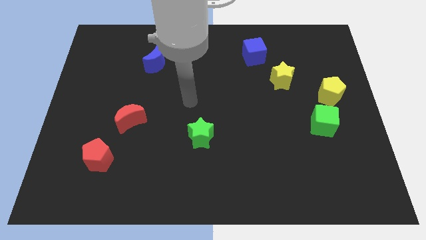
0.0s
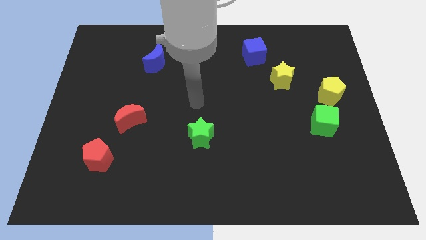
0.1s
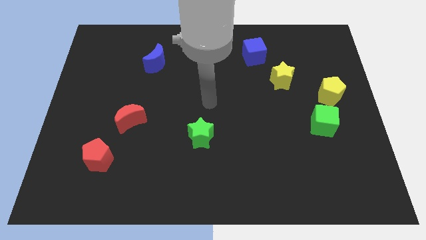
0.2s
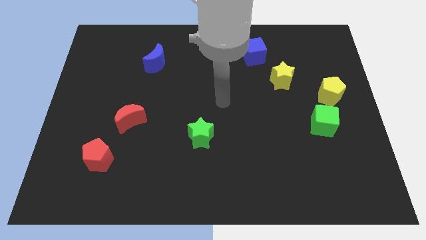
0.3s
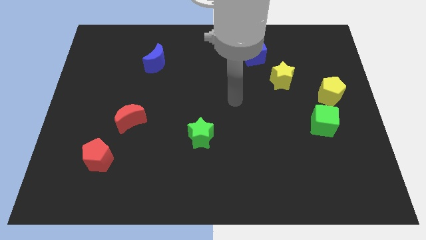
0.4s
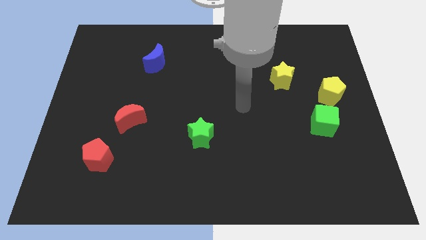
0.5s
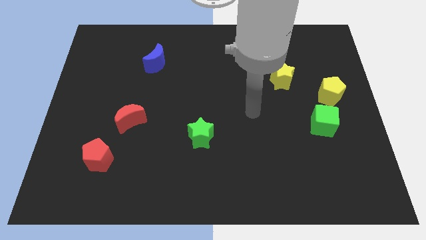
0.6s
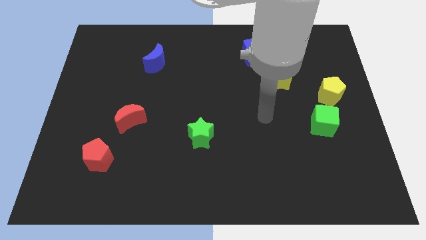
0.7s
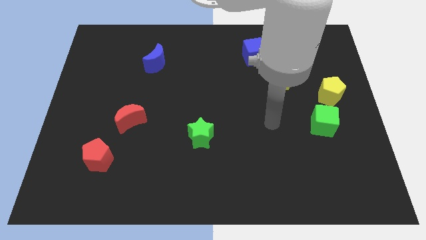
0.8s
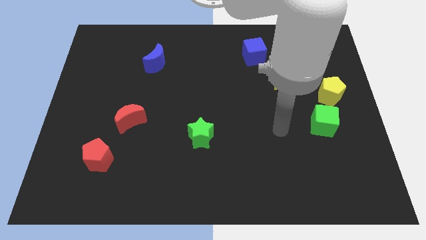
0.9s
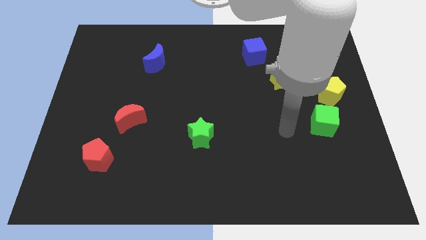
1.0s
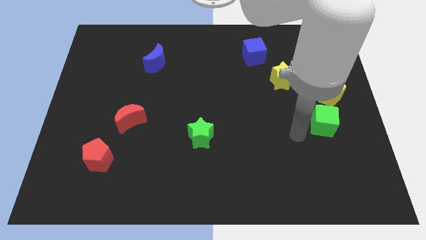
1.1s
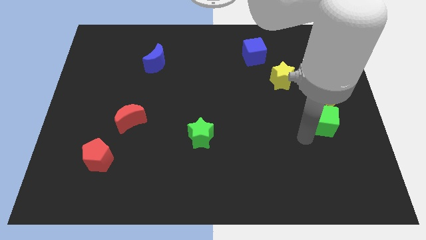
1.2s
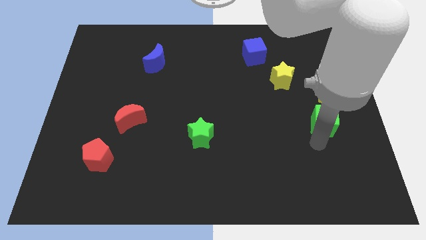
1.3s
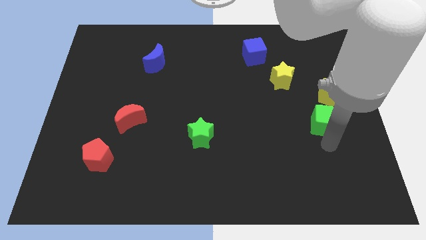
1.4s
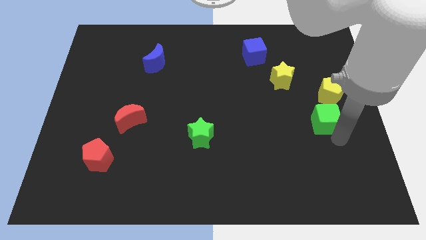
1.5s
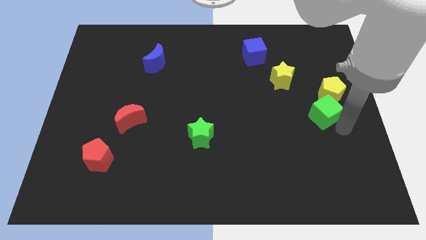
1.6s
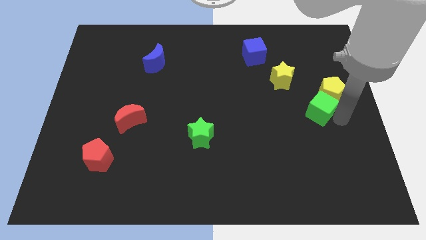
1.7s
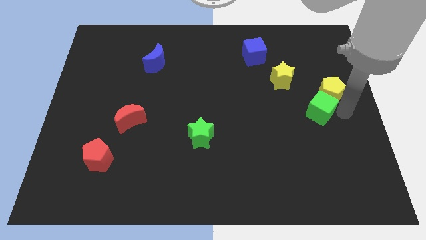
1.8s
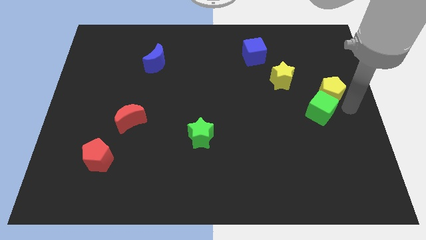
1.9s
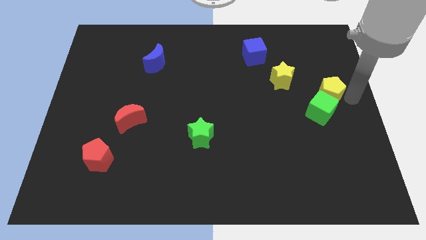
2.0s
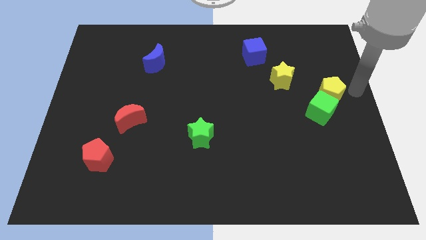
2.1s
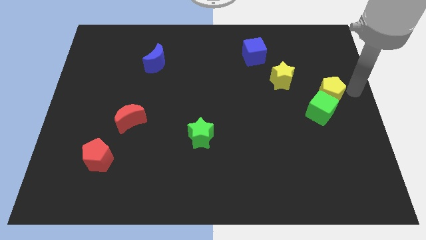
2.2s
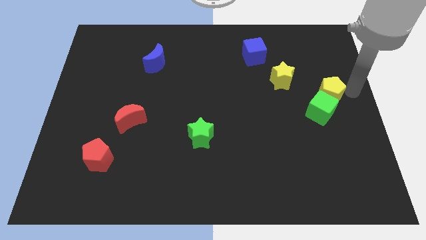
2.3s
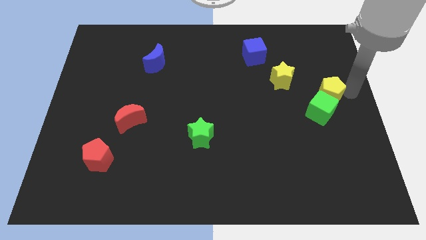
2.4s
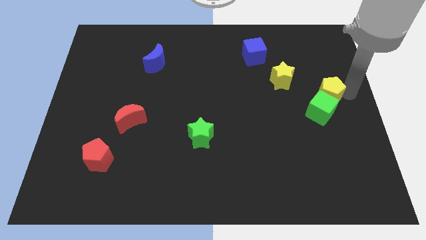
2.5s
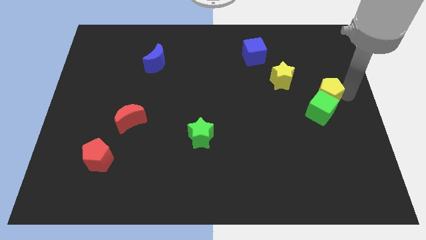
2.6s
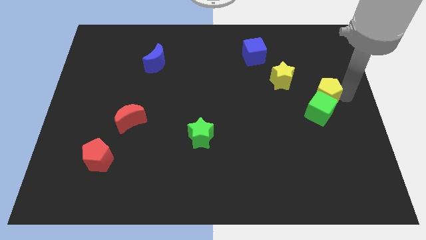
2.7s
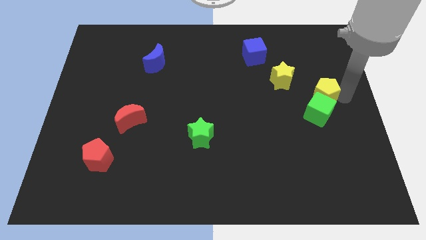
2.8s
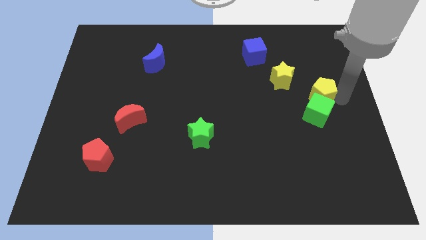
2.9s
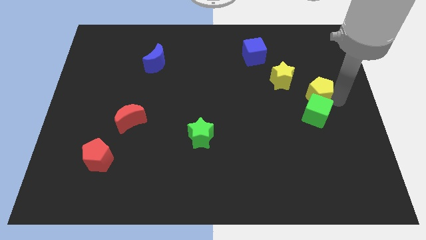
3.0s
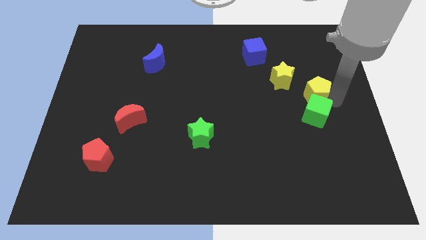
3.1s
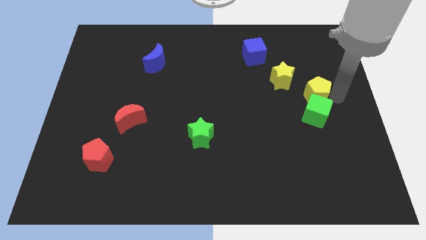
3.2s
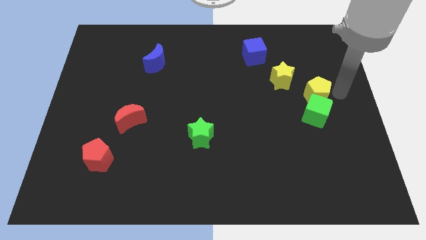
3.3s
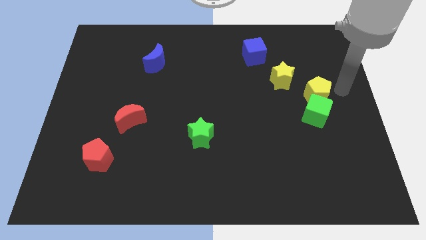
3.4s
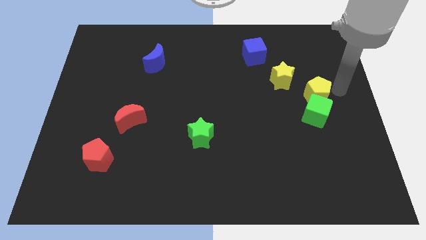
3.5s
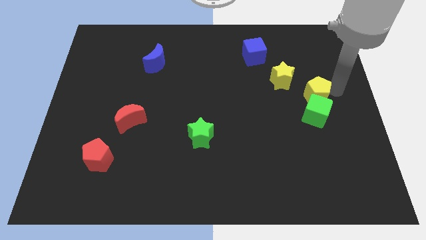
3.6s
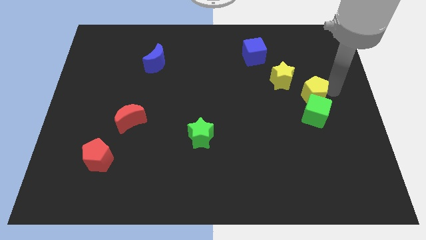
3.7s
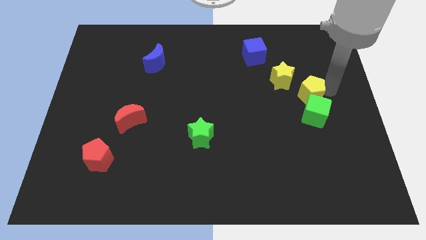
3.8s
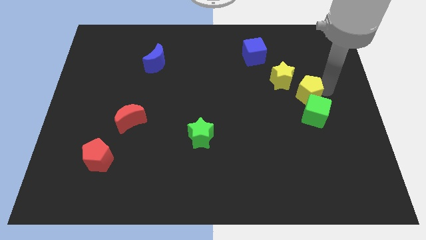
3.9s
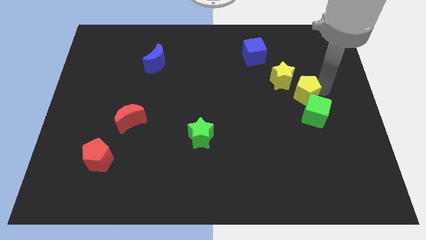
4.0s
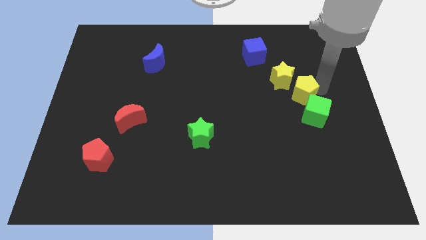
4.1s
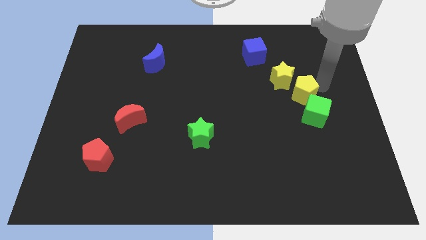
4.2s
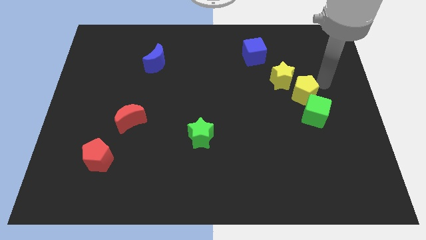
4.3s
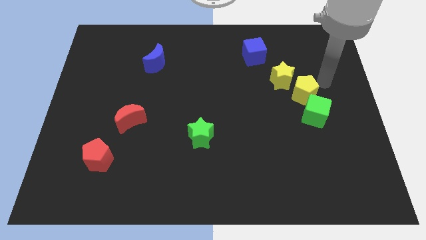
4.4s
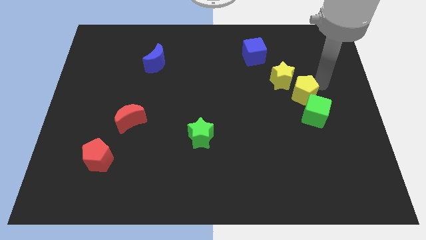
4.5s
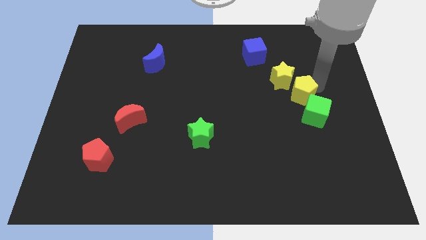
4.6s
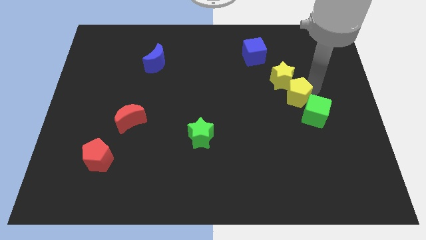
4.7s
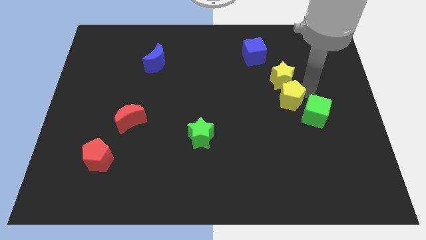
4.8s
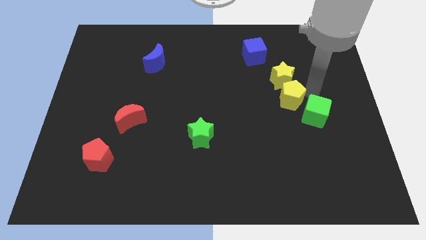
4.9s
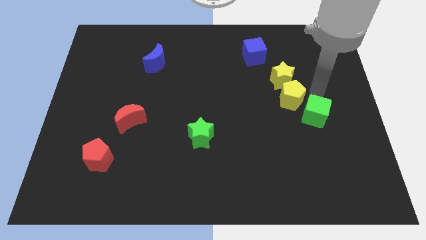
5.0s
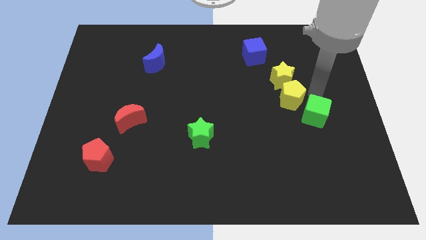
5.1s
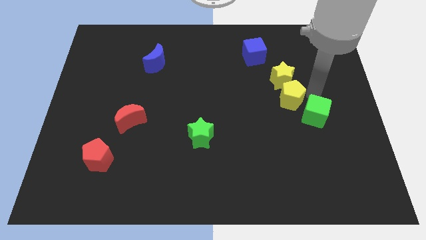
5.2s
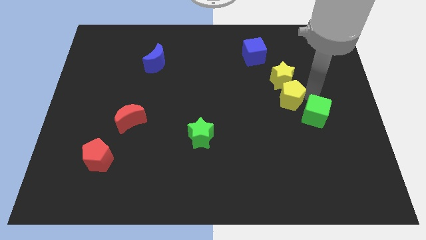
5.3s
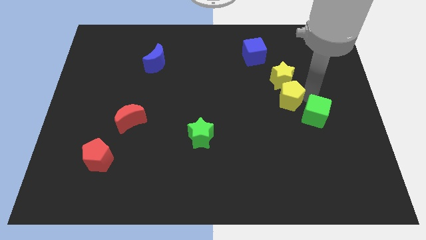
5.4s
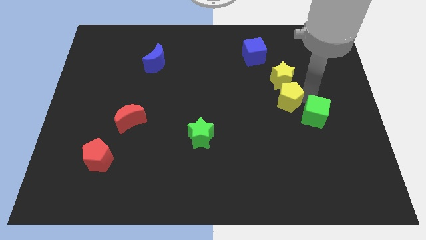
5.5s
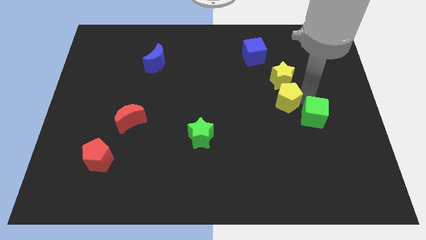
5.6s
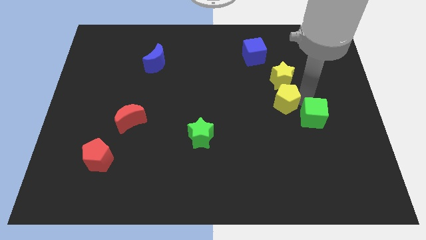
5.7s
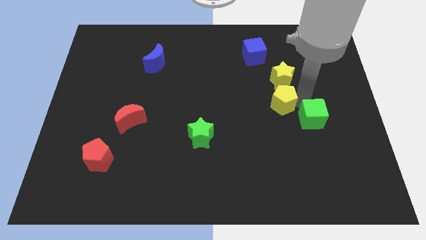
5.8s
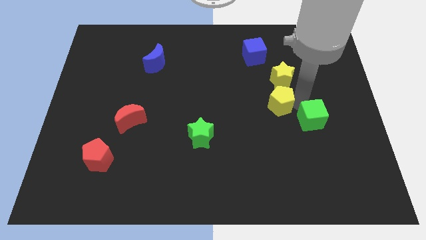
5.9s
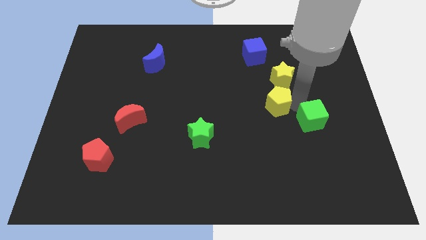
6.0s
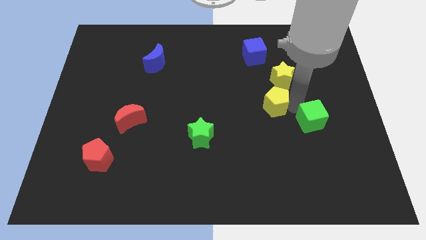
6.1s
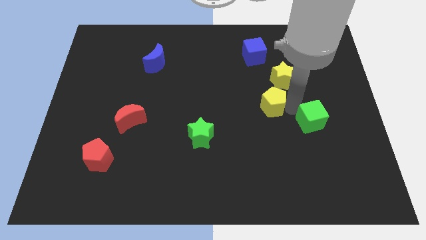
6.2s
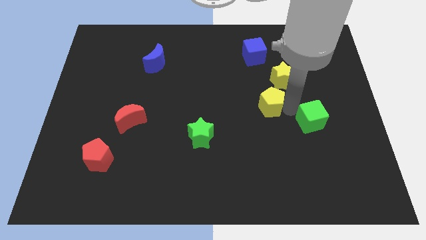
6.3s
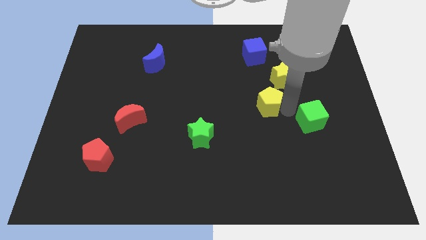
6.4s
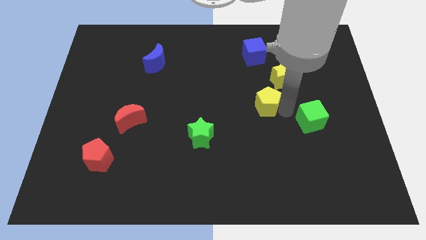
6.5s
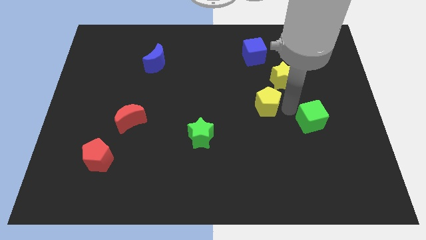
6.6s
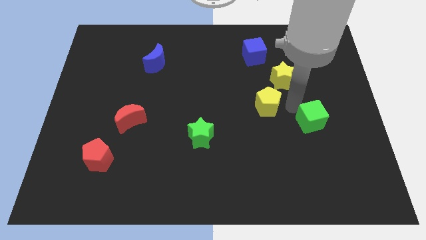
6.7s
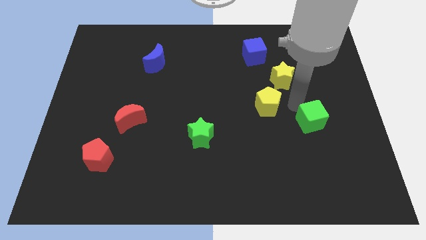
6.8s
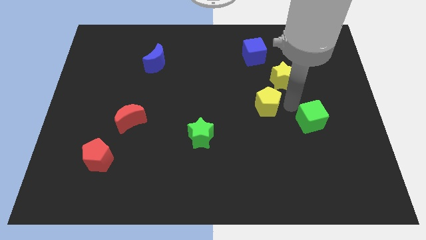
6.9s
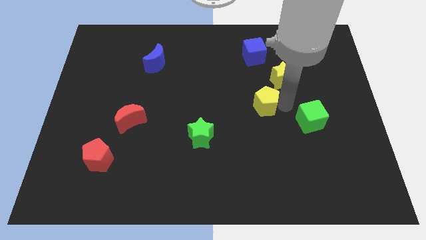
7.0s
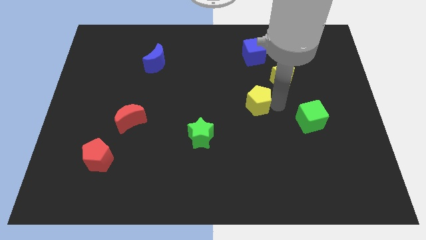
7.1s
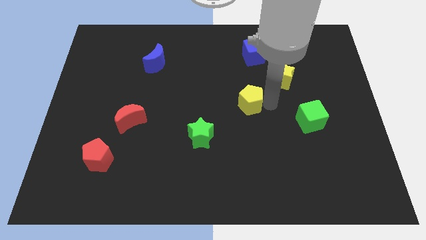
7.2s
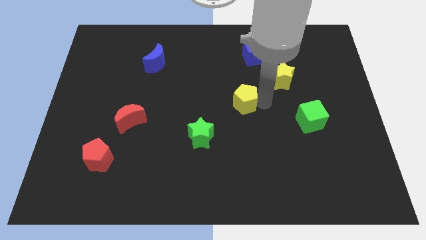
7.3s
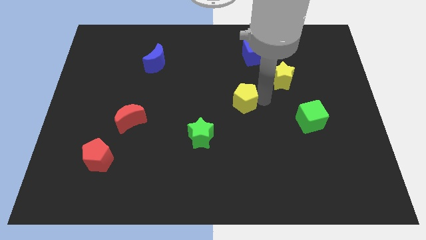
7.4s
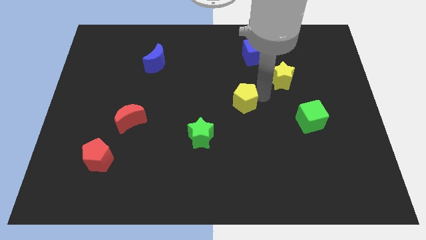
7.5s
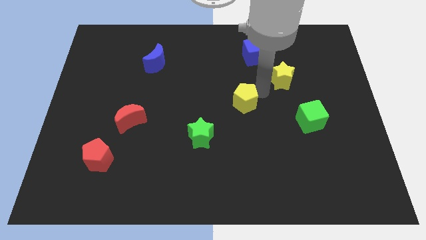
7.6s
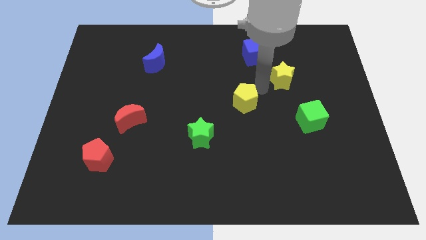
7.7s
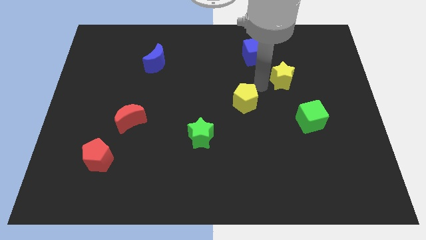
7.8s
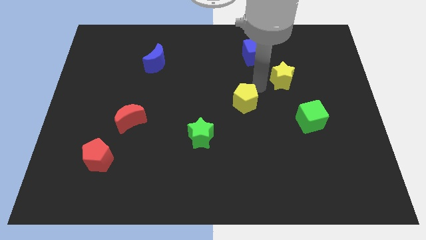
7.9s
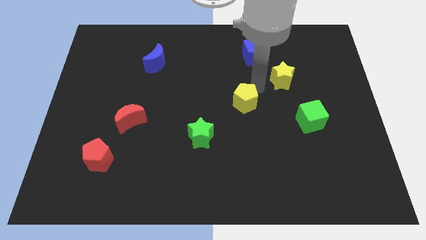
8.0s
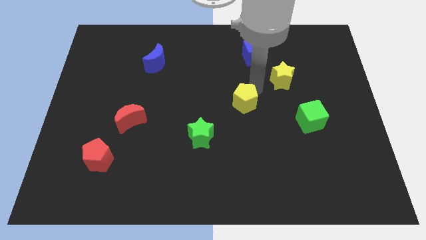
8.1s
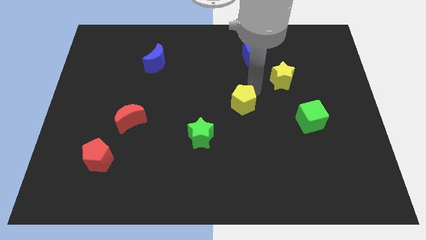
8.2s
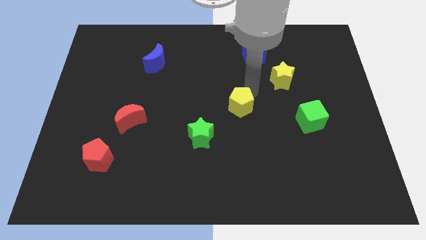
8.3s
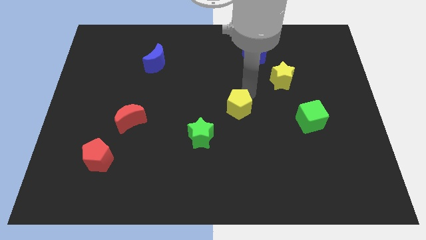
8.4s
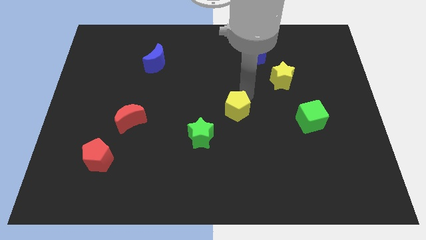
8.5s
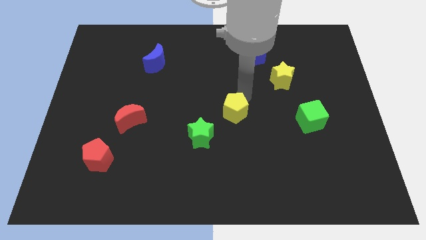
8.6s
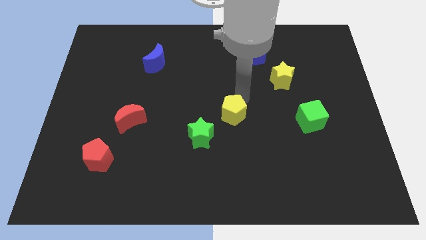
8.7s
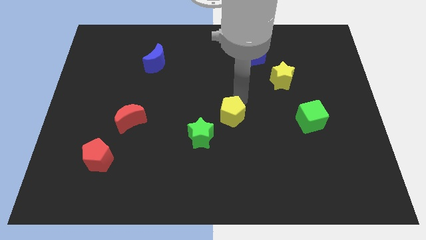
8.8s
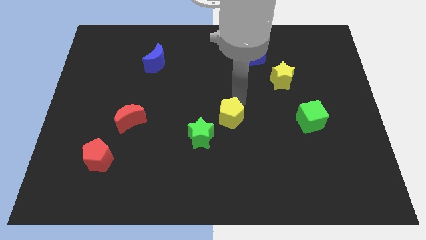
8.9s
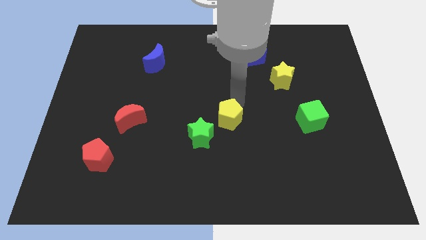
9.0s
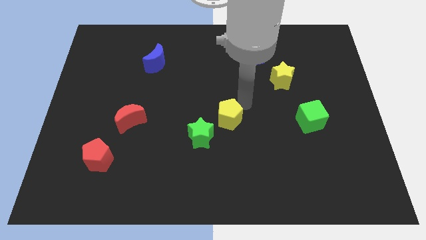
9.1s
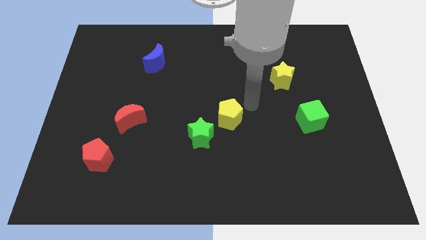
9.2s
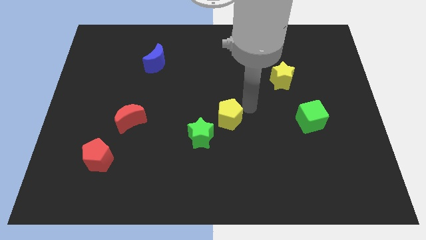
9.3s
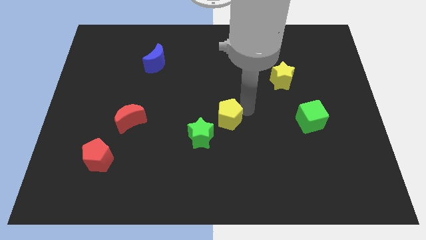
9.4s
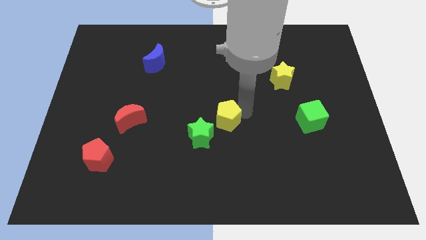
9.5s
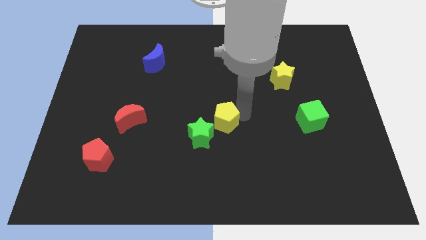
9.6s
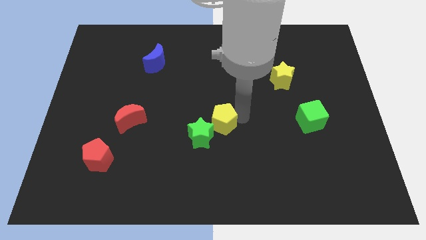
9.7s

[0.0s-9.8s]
slide the yellow pentagon towards the green star
